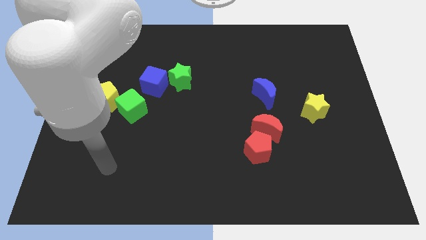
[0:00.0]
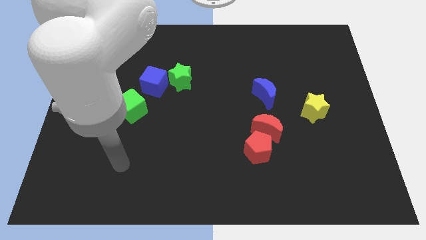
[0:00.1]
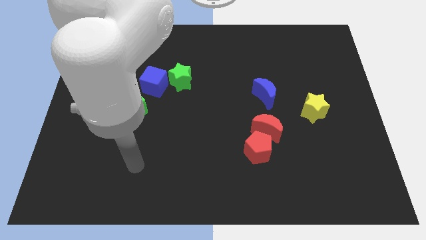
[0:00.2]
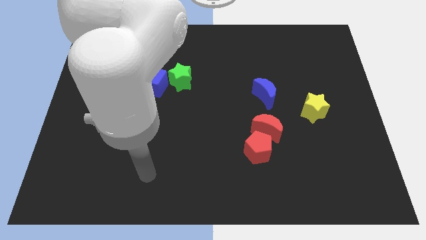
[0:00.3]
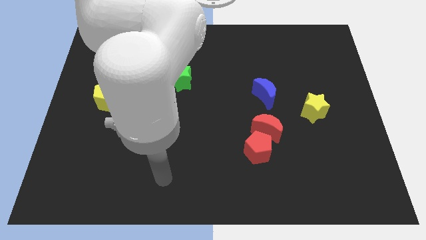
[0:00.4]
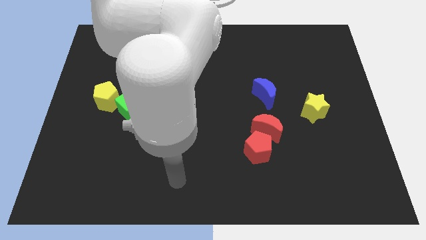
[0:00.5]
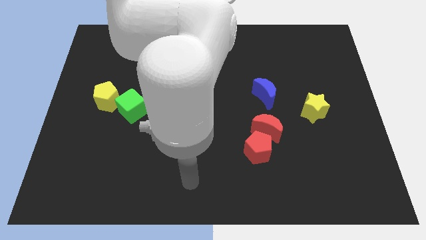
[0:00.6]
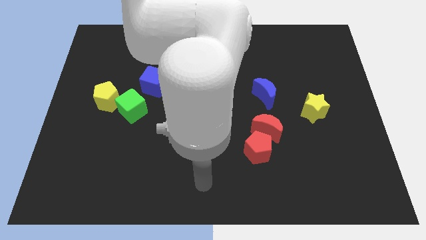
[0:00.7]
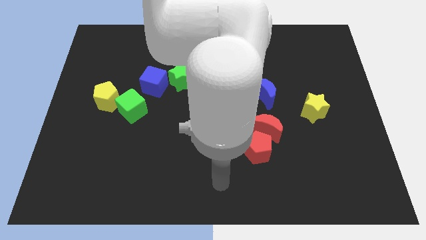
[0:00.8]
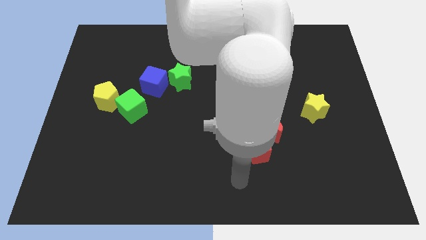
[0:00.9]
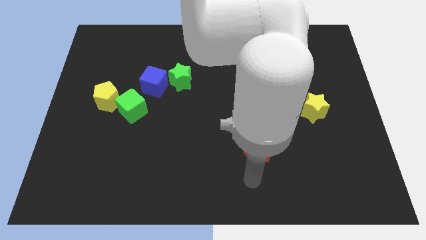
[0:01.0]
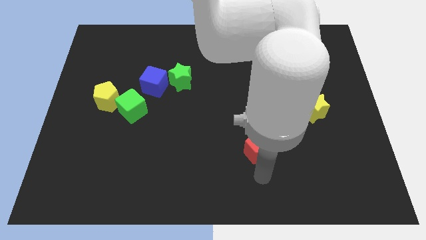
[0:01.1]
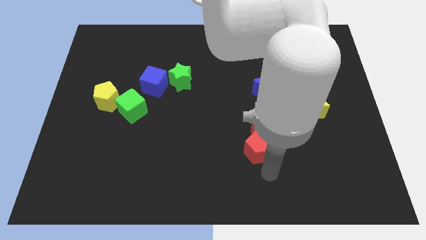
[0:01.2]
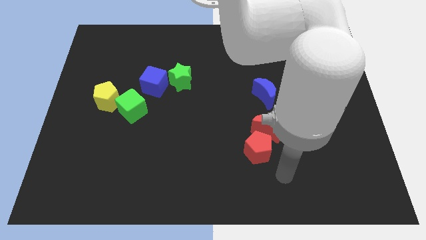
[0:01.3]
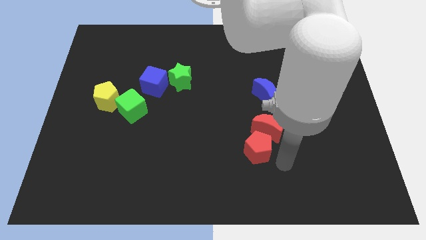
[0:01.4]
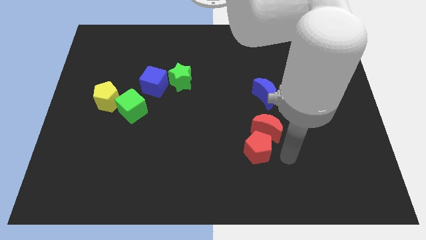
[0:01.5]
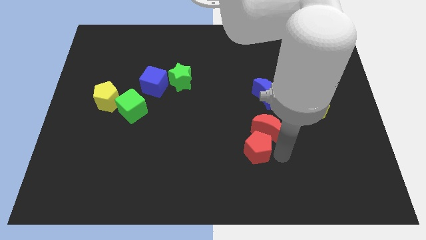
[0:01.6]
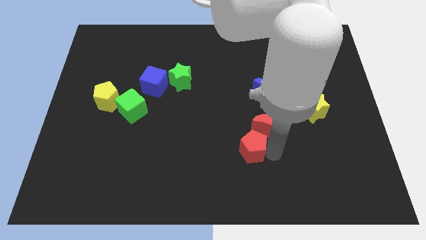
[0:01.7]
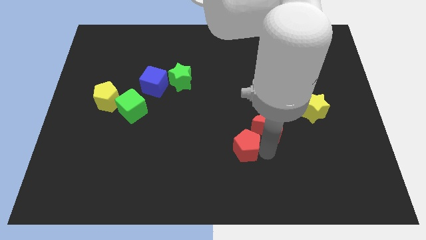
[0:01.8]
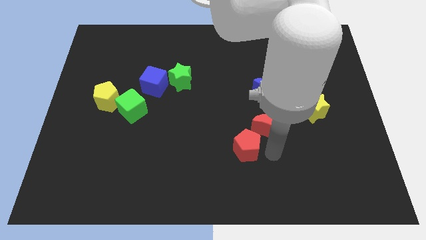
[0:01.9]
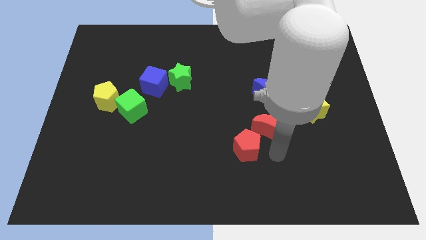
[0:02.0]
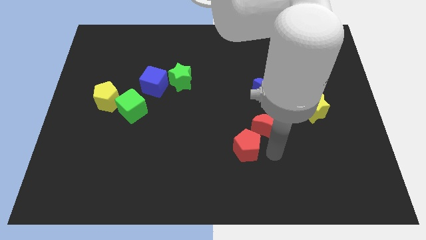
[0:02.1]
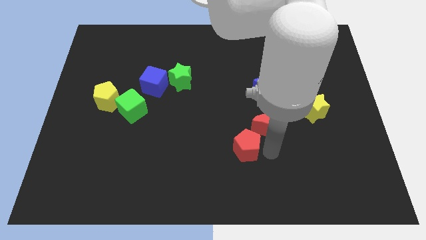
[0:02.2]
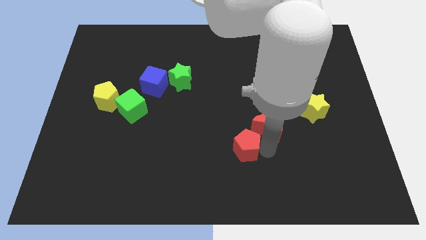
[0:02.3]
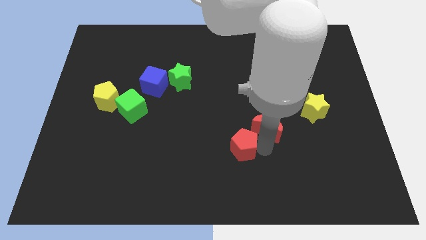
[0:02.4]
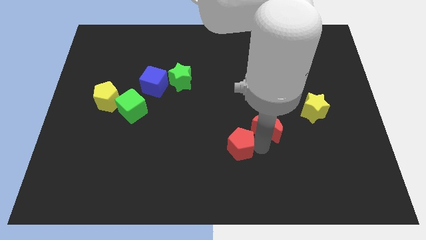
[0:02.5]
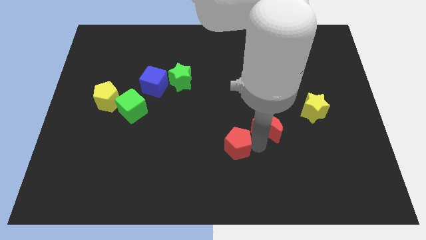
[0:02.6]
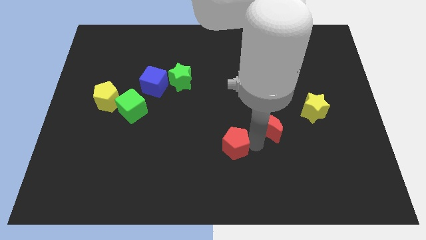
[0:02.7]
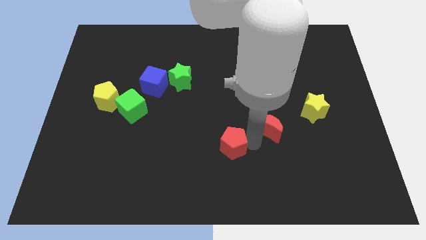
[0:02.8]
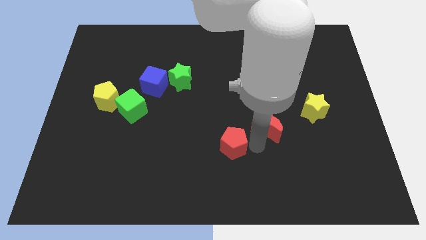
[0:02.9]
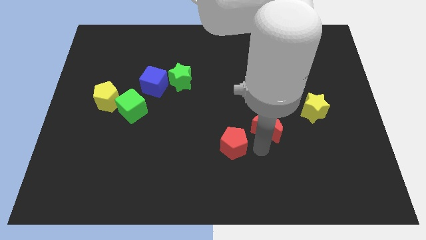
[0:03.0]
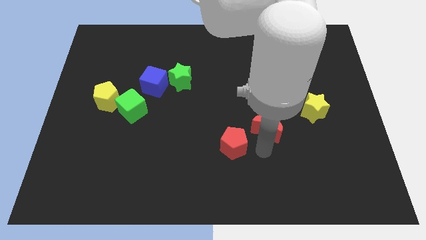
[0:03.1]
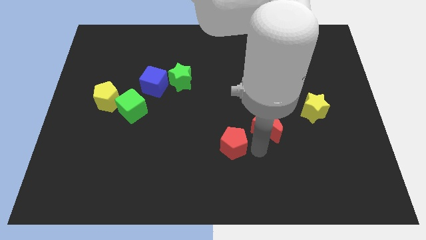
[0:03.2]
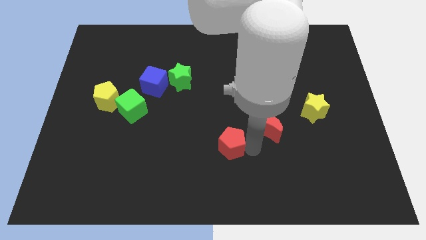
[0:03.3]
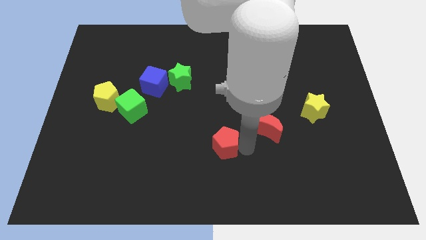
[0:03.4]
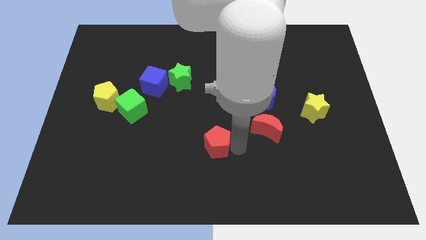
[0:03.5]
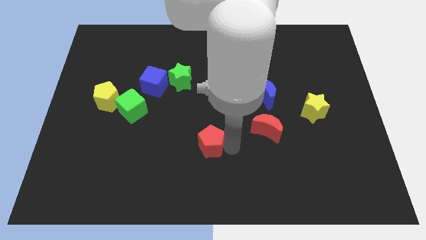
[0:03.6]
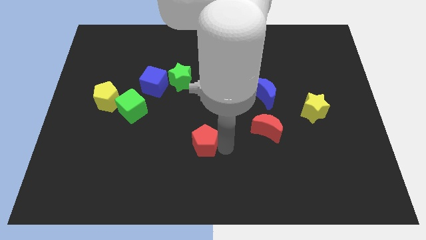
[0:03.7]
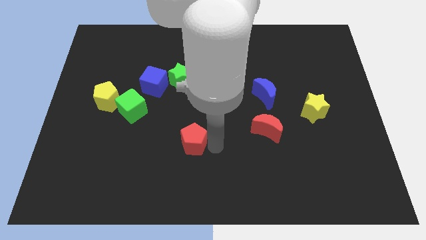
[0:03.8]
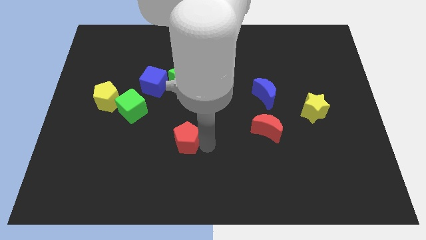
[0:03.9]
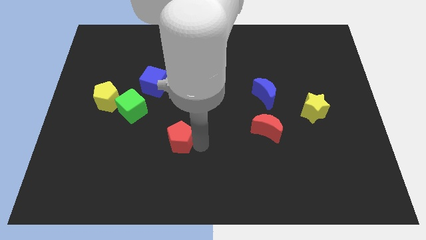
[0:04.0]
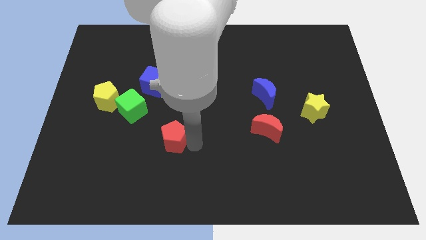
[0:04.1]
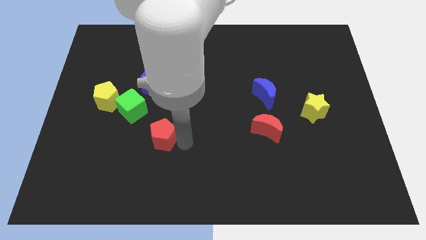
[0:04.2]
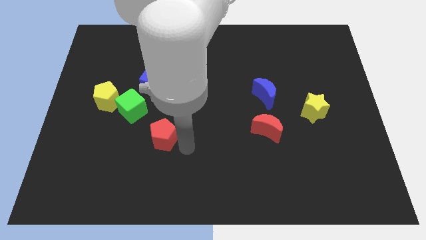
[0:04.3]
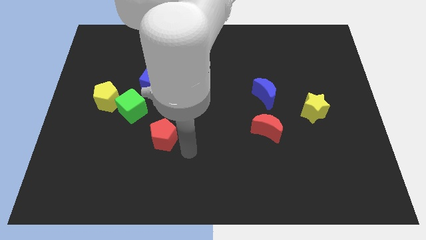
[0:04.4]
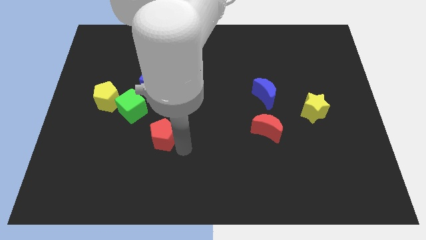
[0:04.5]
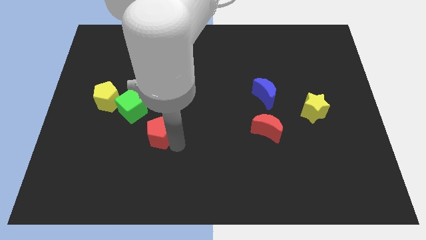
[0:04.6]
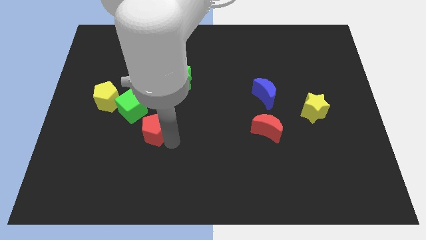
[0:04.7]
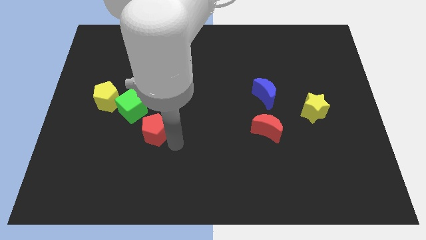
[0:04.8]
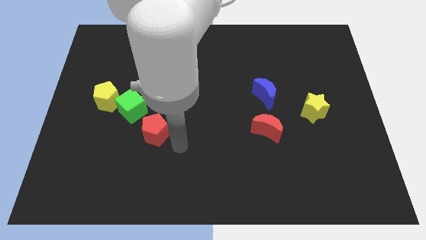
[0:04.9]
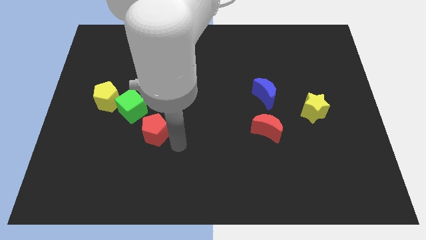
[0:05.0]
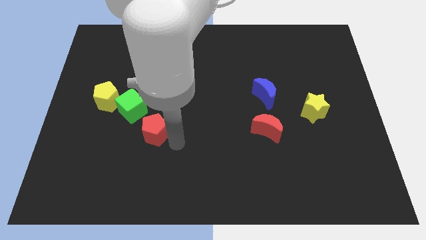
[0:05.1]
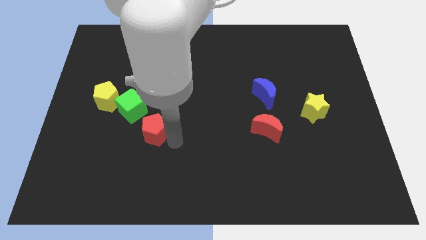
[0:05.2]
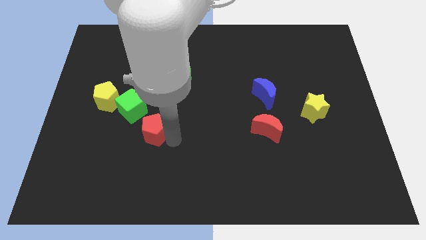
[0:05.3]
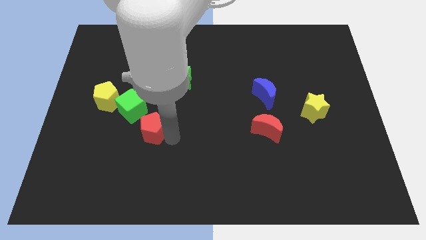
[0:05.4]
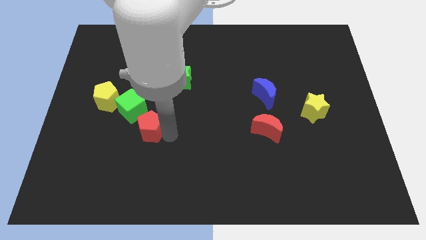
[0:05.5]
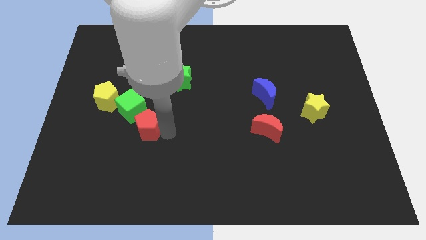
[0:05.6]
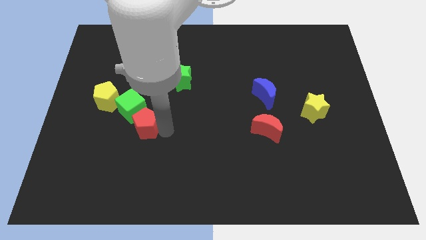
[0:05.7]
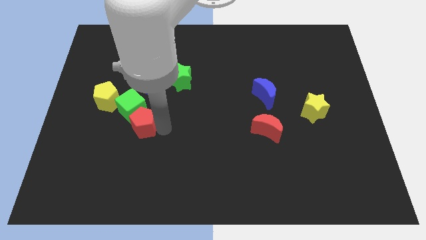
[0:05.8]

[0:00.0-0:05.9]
slide the red pentagon to the bottom right of the yellow pentagon

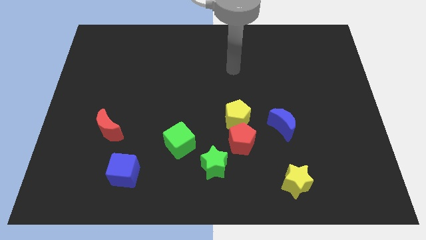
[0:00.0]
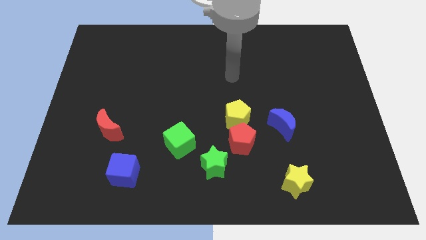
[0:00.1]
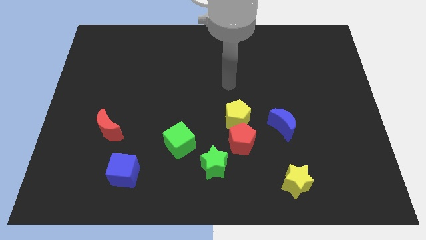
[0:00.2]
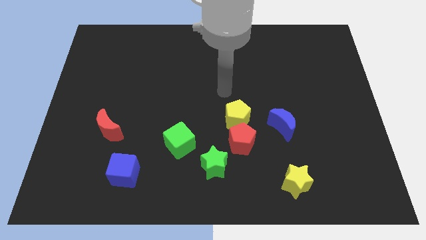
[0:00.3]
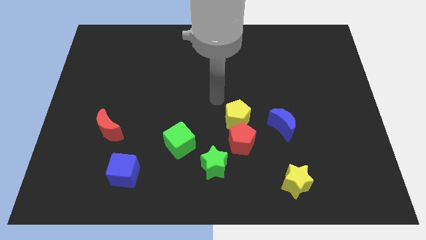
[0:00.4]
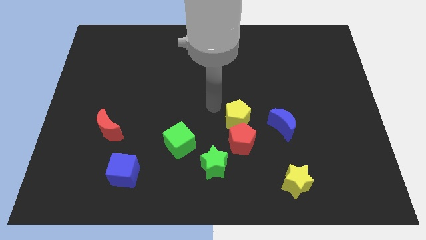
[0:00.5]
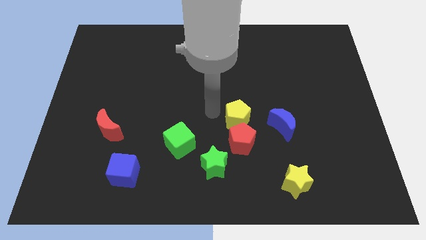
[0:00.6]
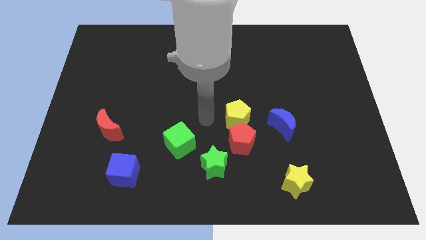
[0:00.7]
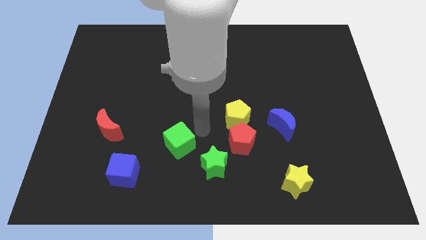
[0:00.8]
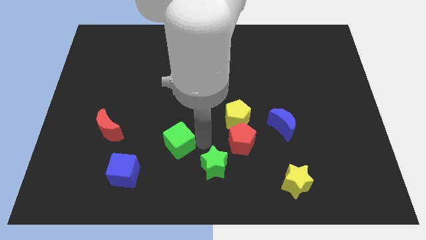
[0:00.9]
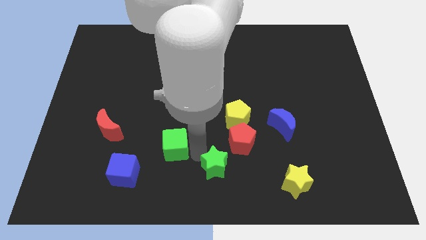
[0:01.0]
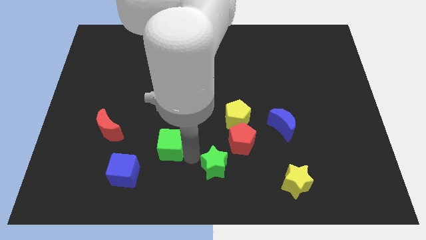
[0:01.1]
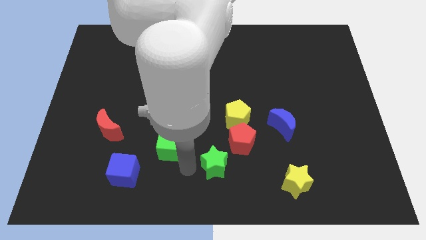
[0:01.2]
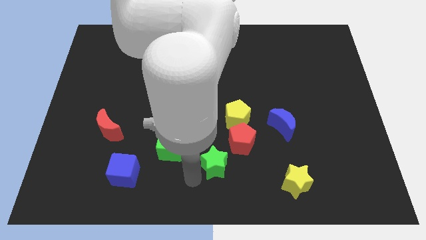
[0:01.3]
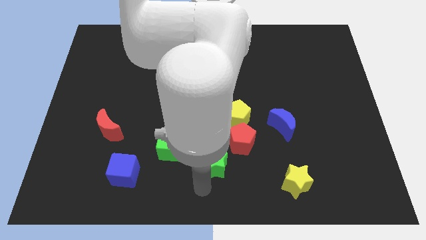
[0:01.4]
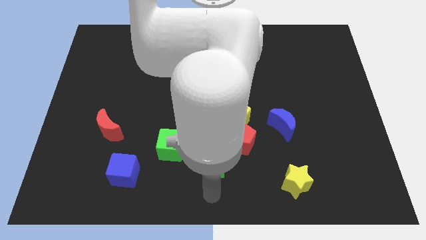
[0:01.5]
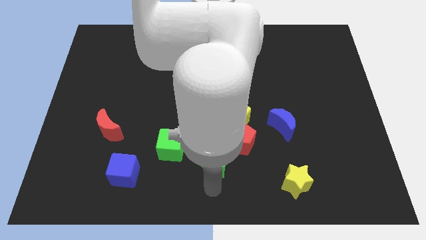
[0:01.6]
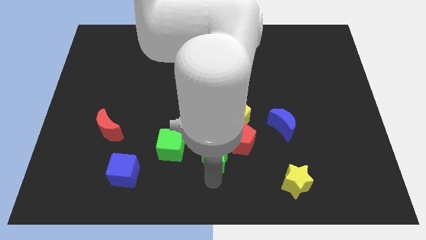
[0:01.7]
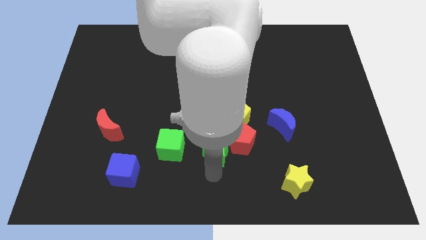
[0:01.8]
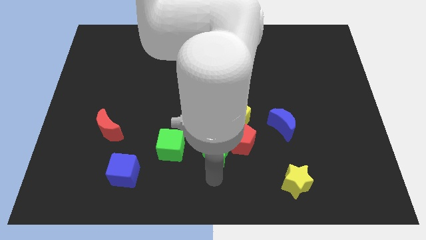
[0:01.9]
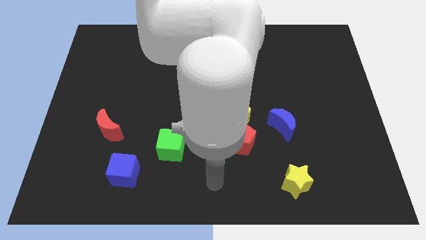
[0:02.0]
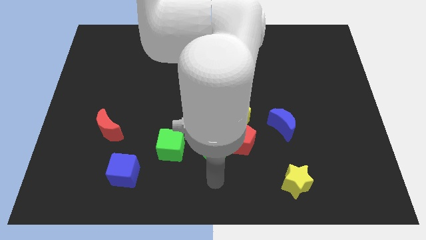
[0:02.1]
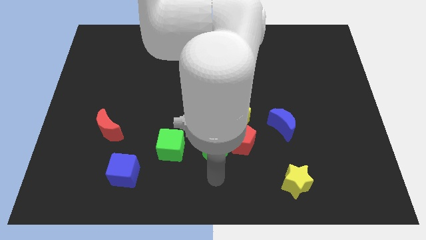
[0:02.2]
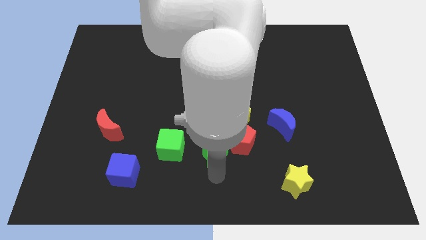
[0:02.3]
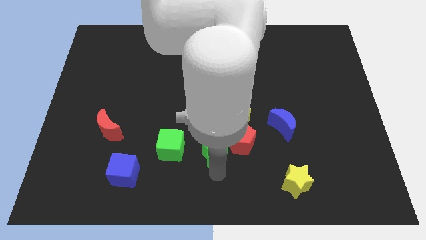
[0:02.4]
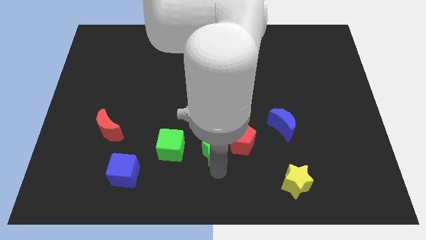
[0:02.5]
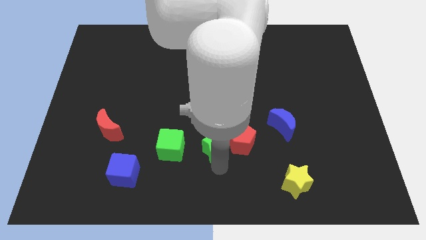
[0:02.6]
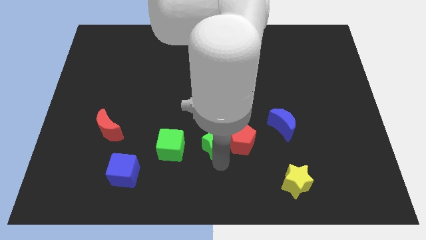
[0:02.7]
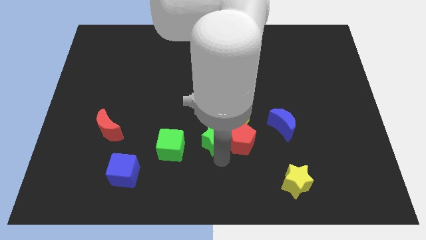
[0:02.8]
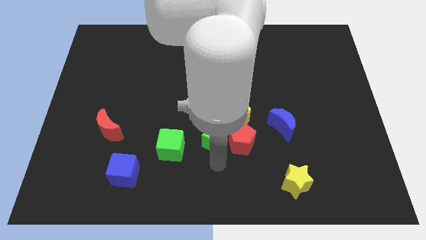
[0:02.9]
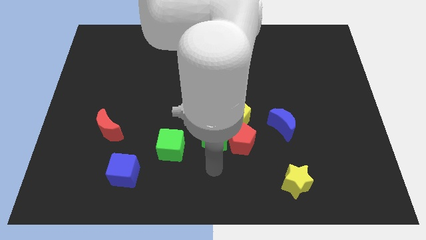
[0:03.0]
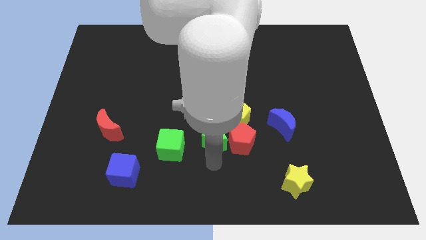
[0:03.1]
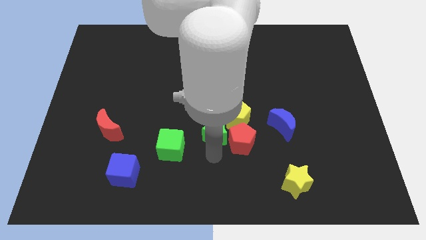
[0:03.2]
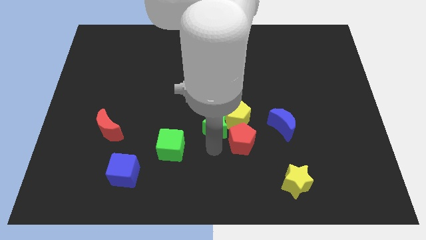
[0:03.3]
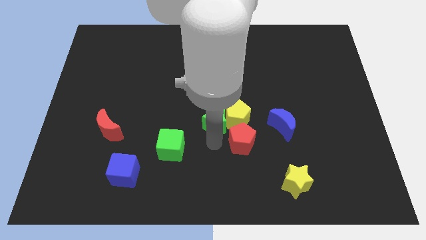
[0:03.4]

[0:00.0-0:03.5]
push the green star to the top left side of the yellow pentagon
